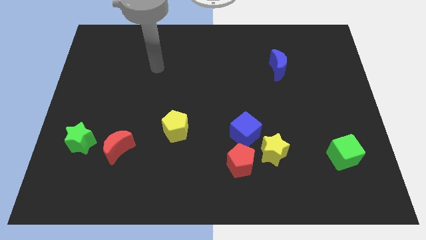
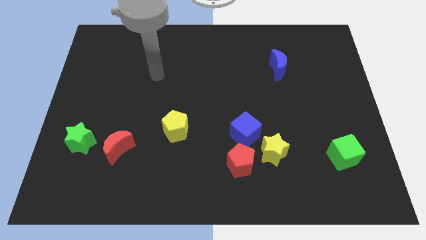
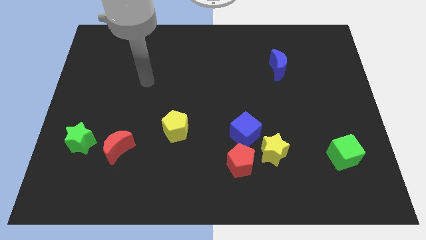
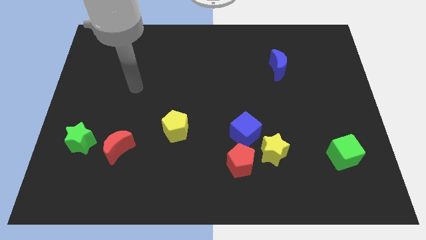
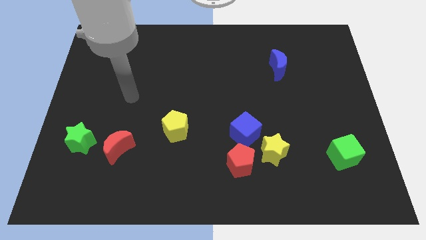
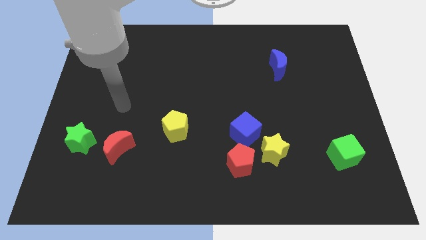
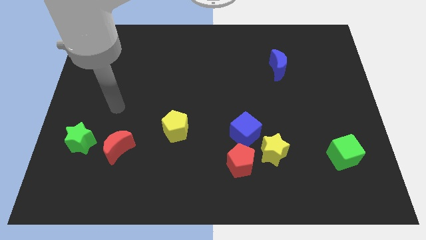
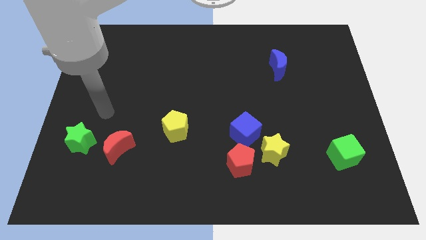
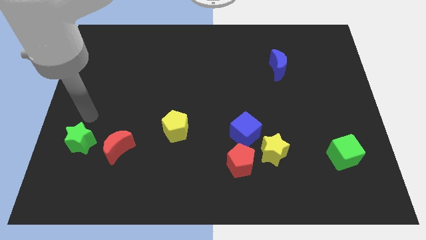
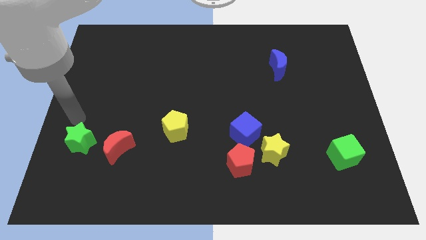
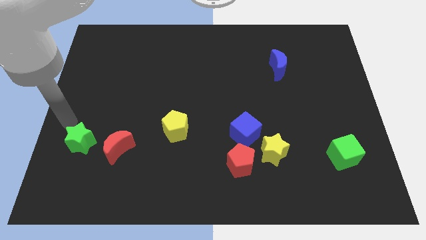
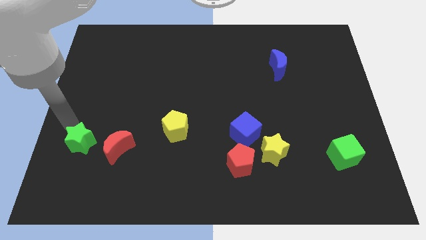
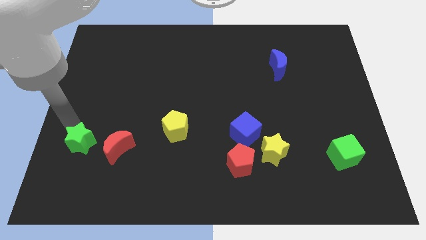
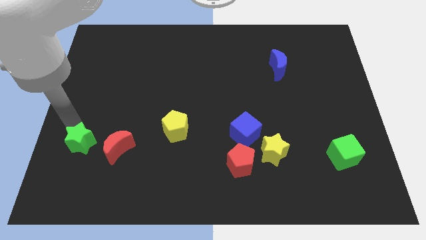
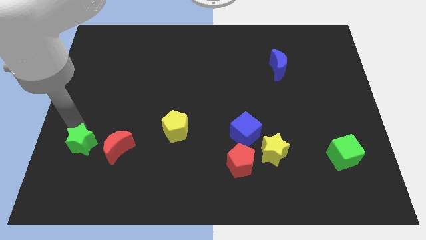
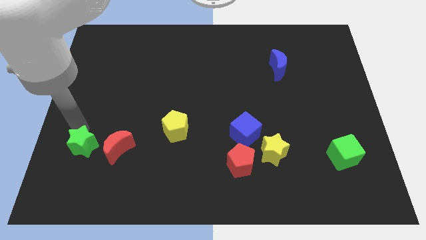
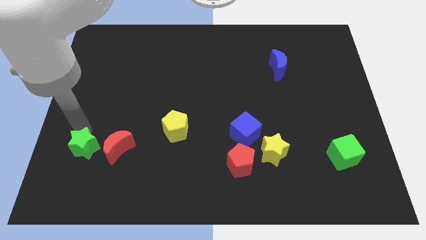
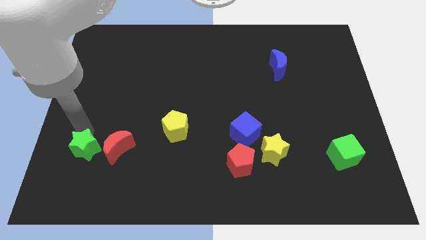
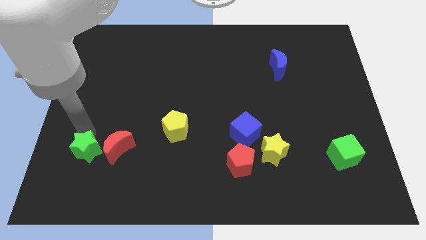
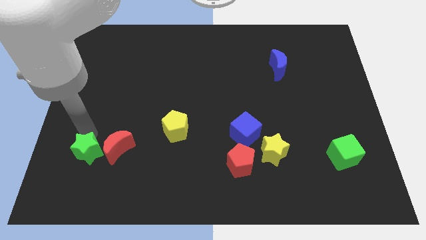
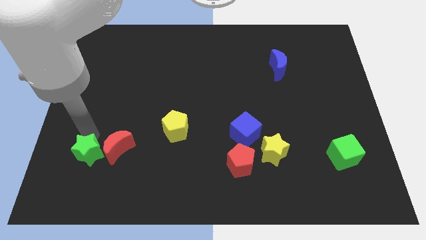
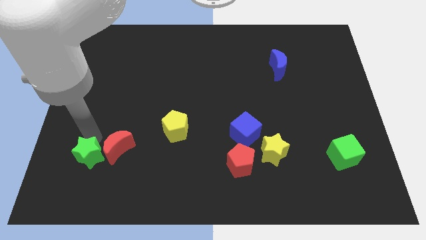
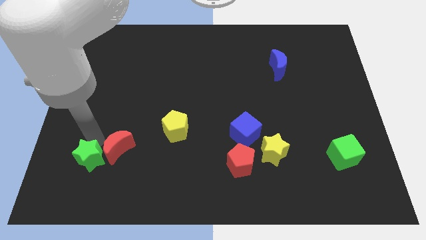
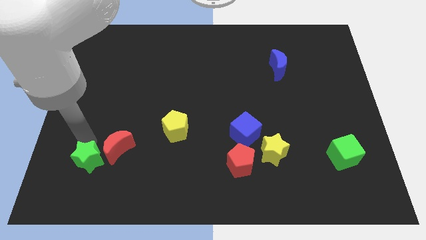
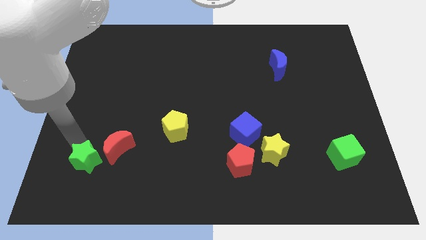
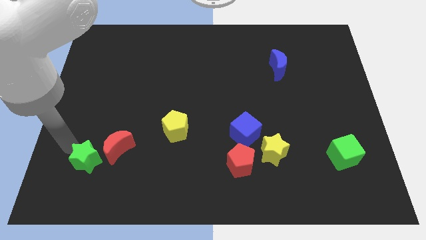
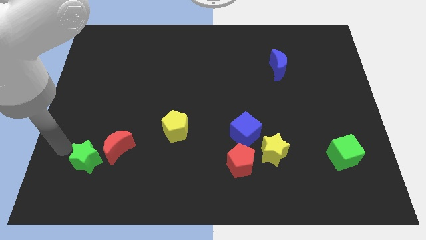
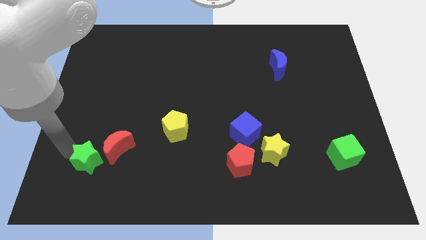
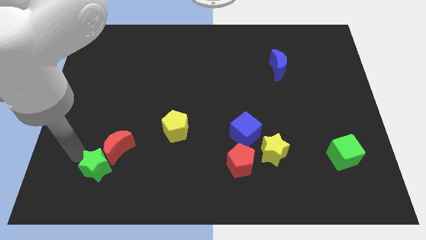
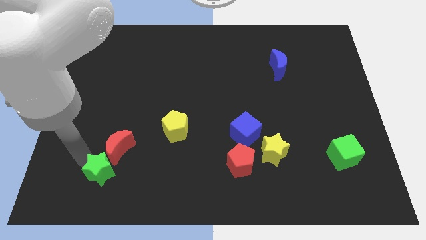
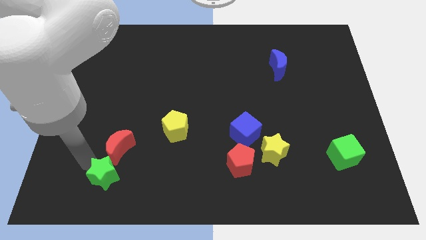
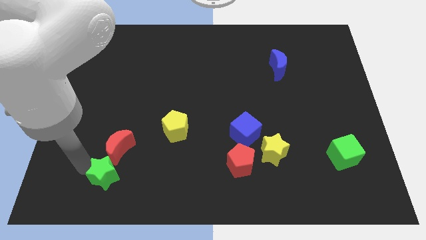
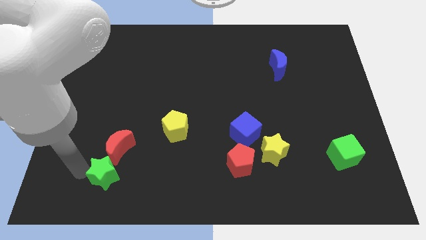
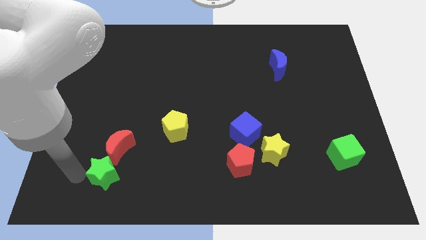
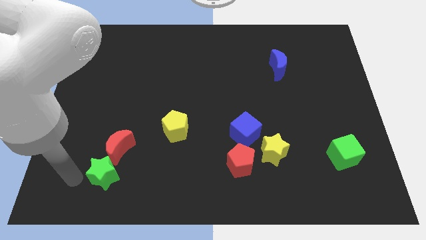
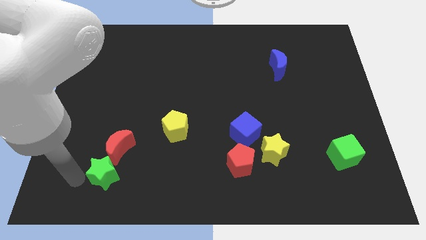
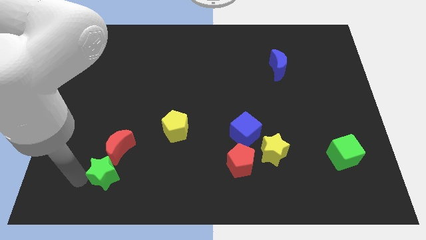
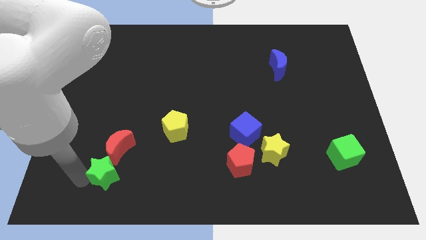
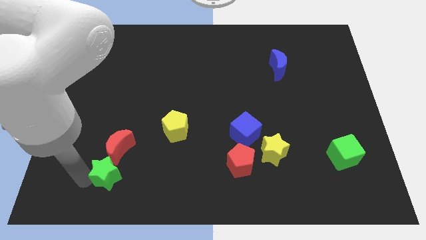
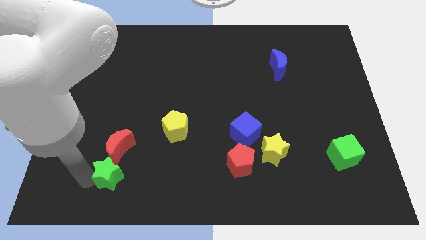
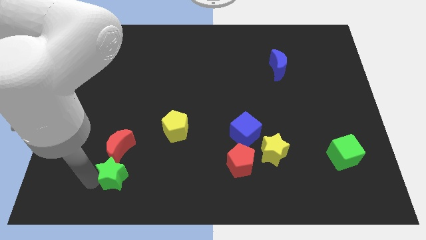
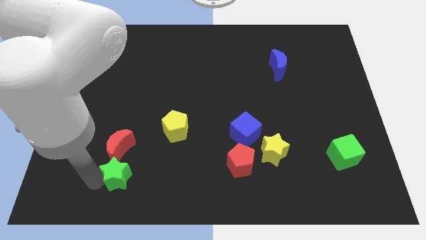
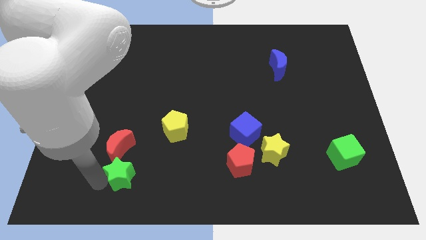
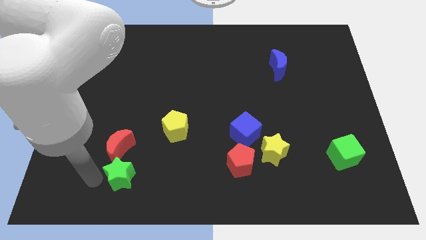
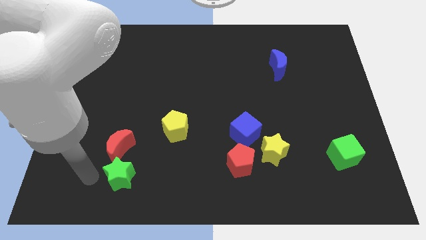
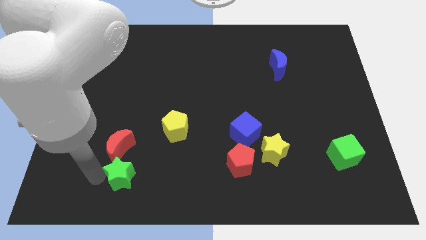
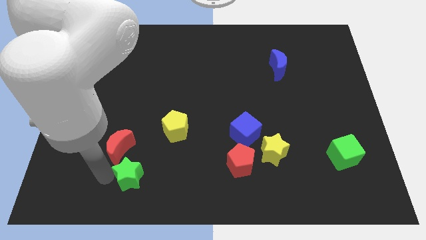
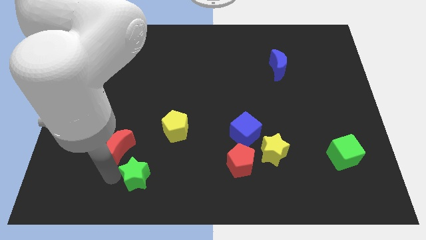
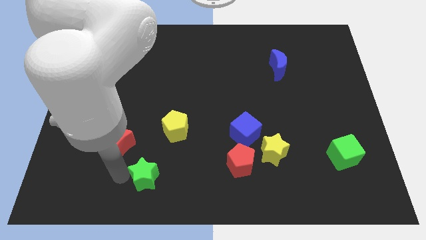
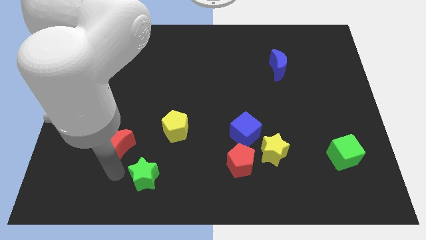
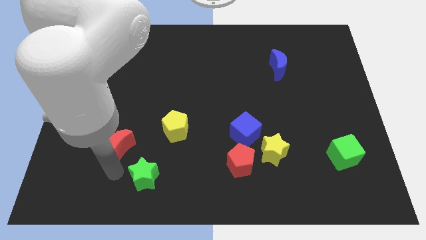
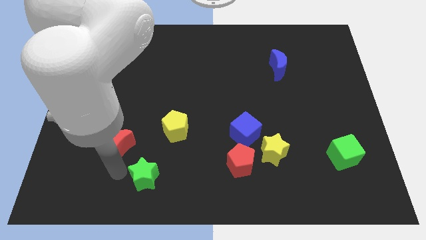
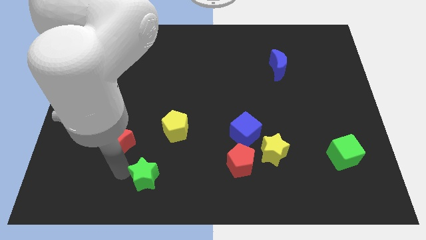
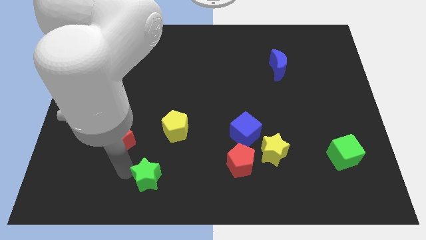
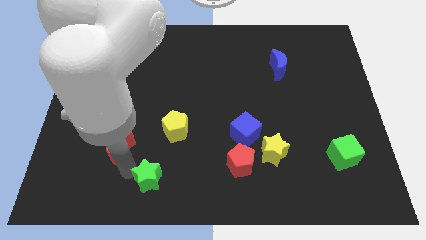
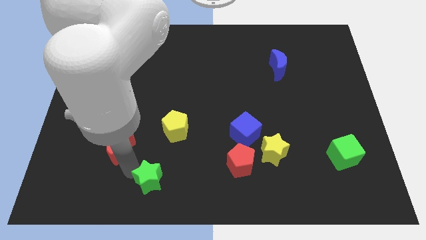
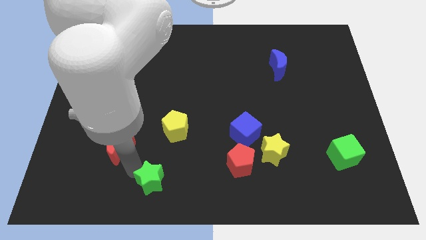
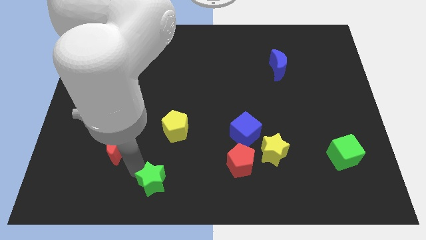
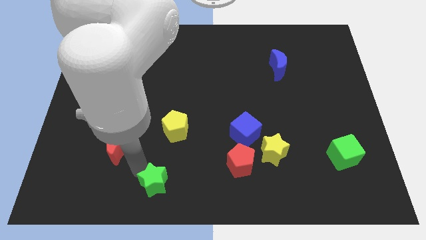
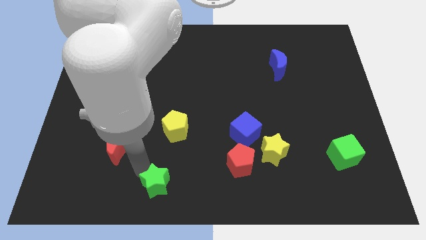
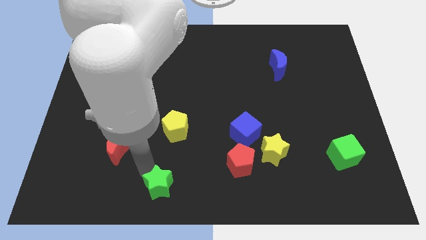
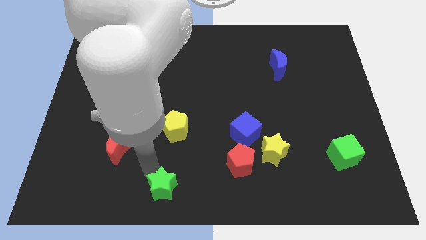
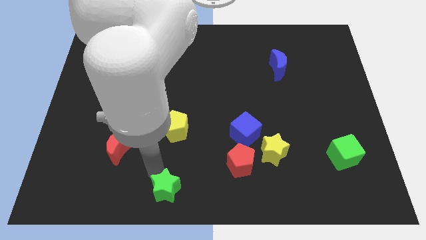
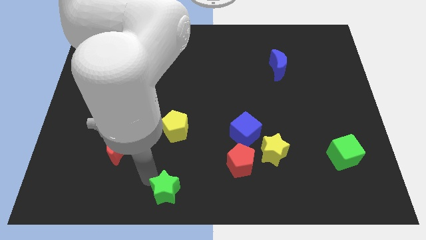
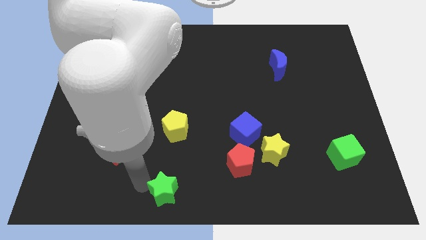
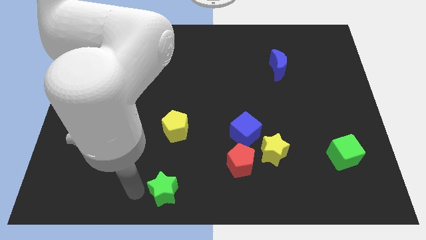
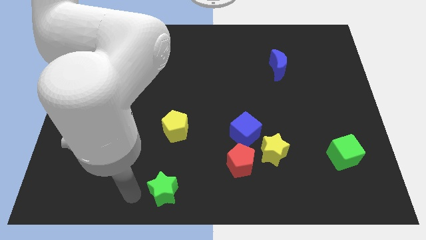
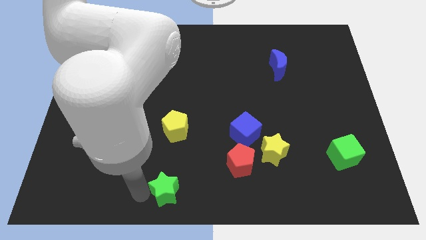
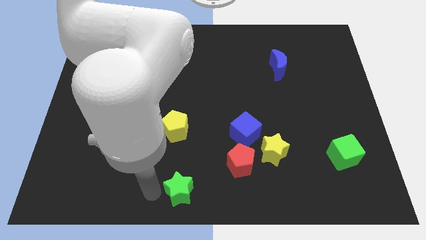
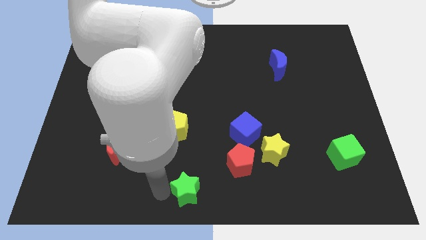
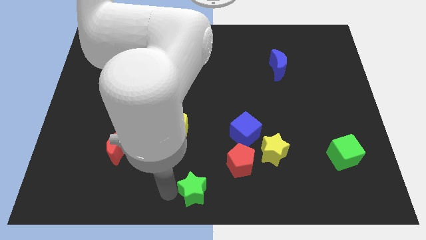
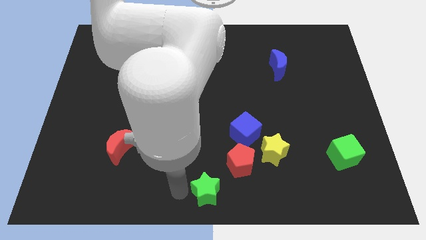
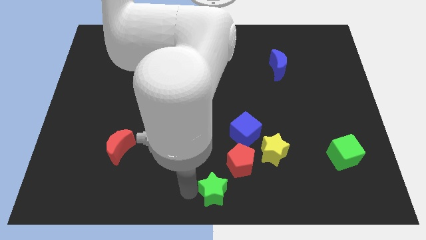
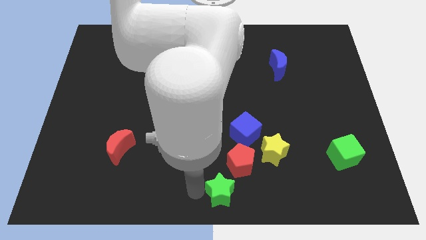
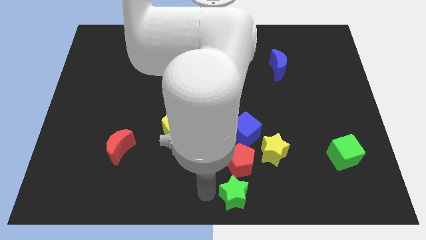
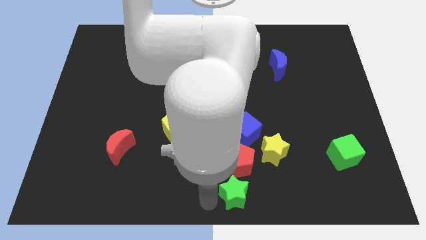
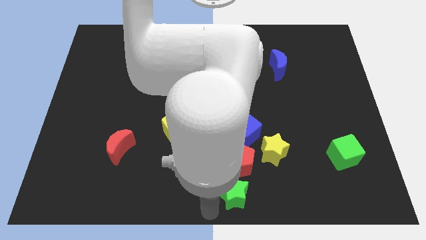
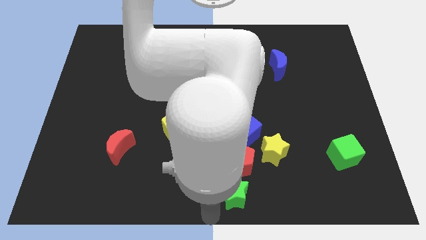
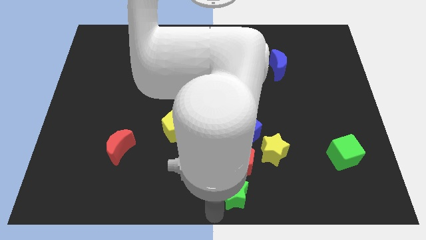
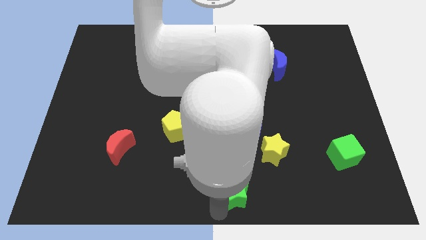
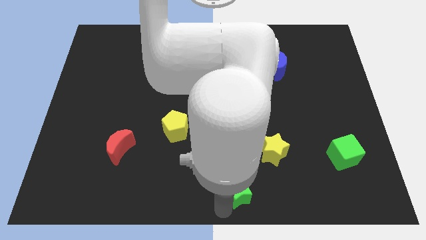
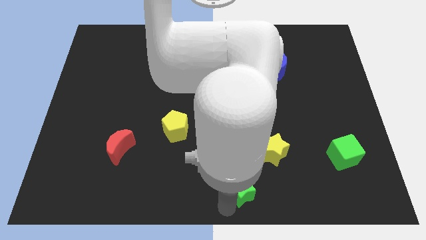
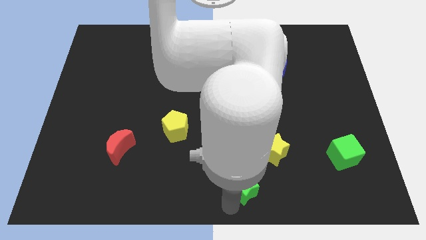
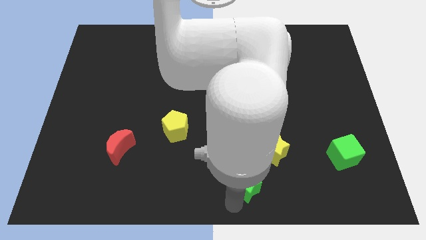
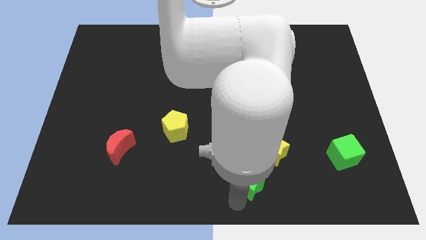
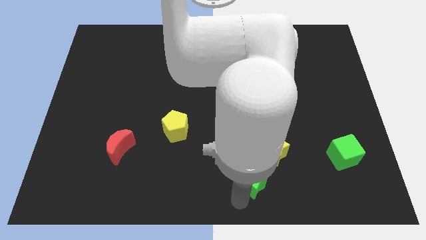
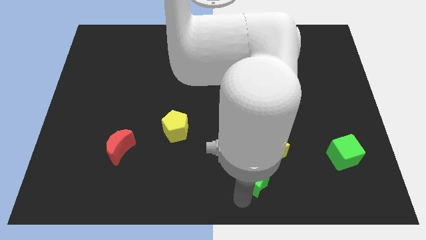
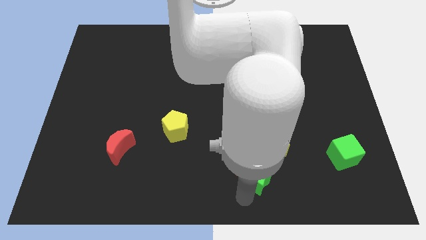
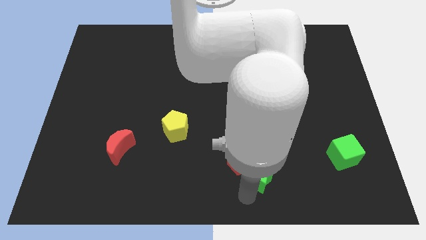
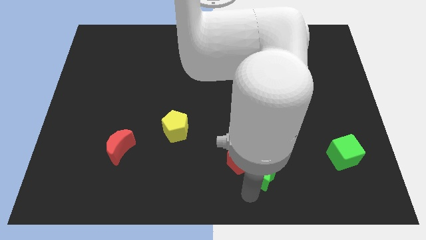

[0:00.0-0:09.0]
slide the green star next to the yellow star
